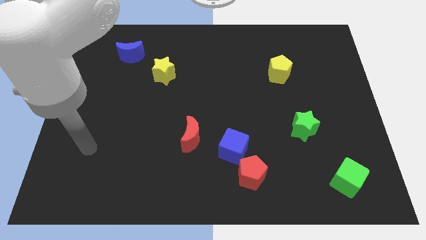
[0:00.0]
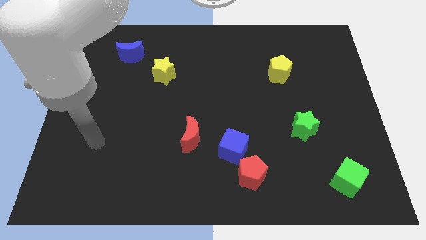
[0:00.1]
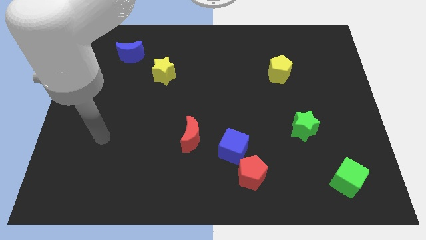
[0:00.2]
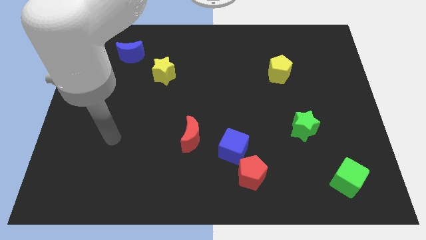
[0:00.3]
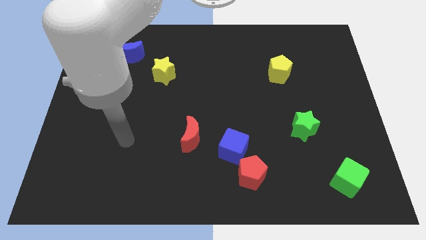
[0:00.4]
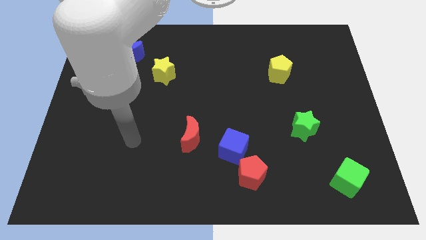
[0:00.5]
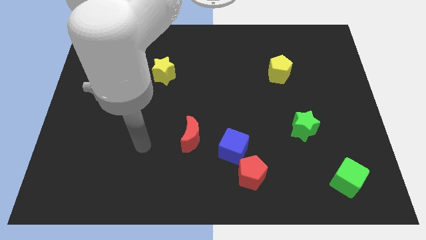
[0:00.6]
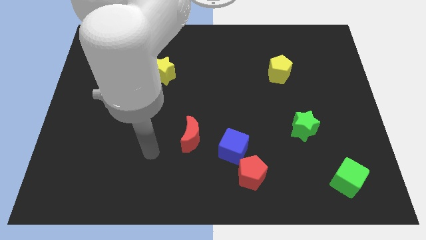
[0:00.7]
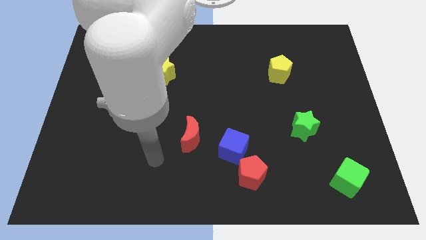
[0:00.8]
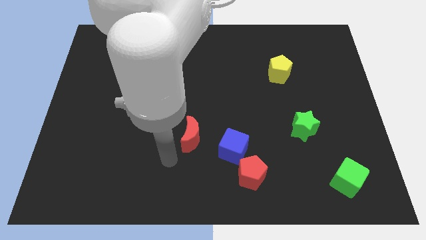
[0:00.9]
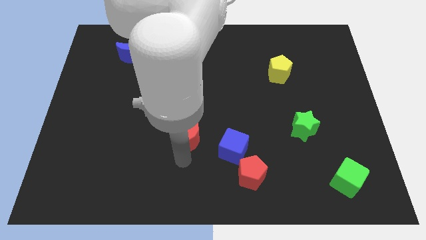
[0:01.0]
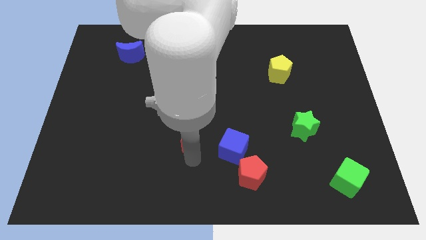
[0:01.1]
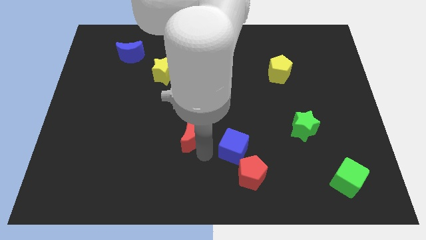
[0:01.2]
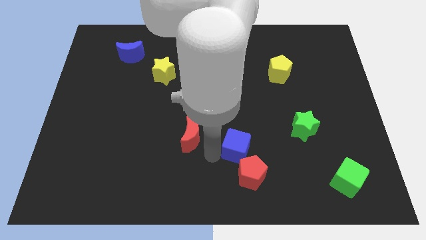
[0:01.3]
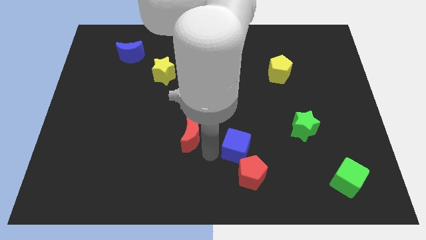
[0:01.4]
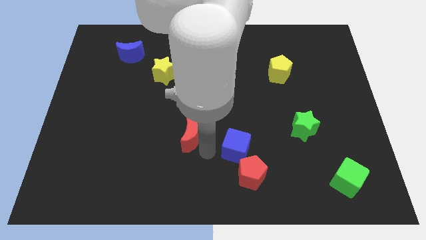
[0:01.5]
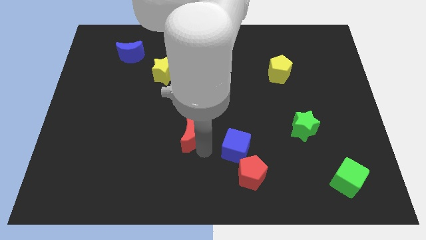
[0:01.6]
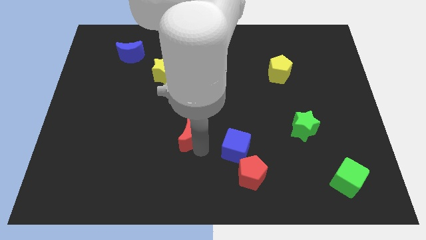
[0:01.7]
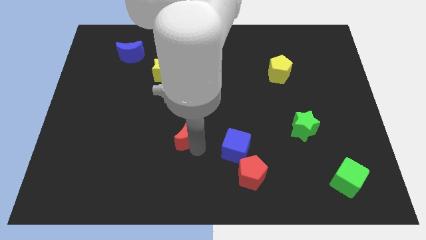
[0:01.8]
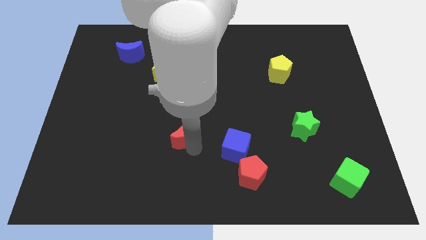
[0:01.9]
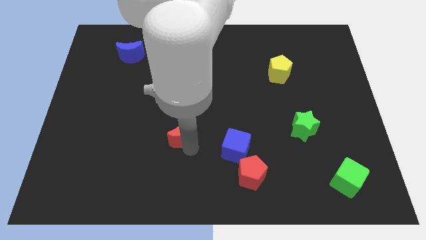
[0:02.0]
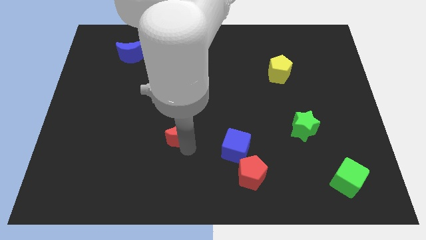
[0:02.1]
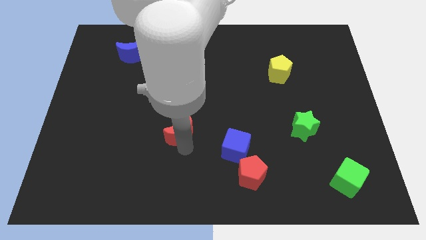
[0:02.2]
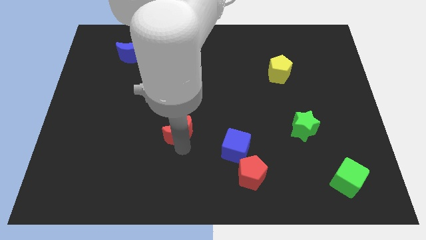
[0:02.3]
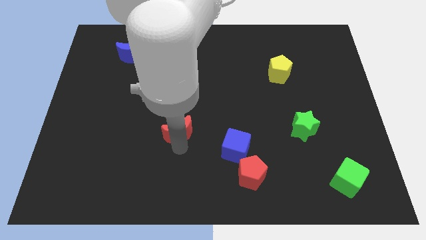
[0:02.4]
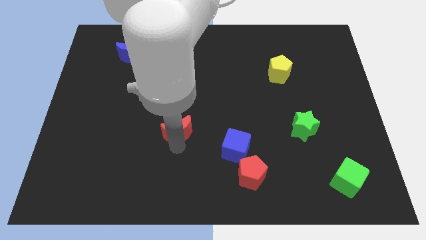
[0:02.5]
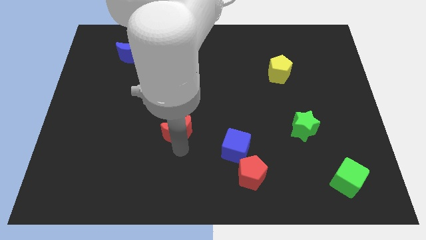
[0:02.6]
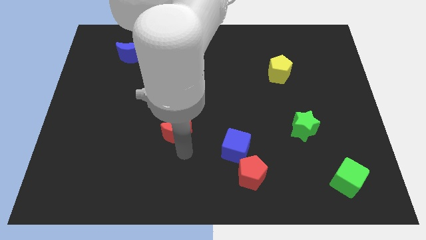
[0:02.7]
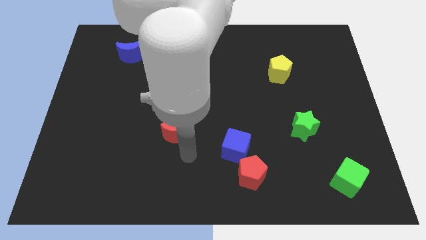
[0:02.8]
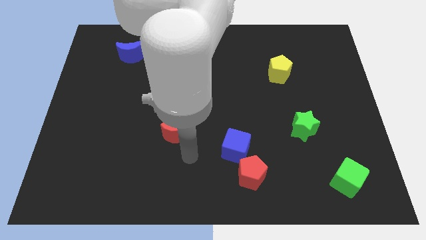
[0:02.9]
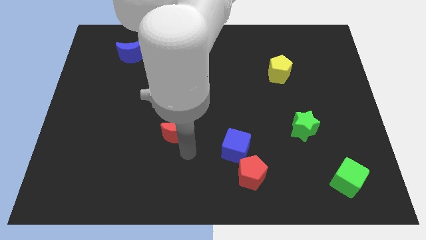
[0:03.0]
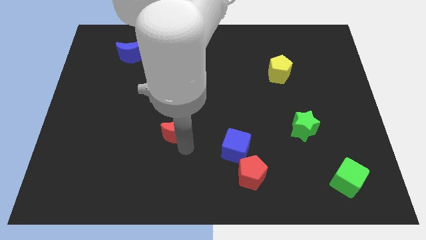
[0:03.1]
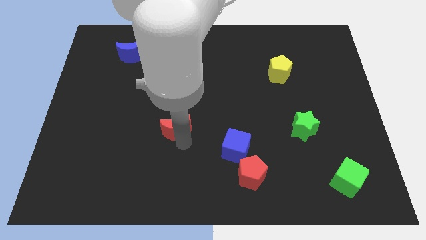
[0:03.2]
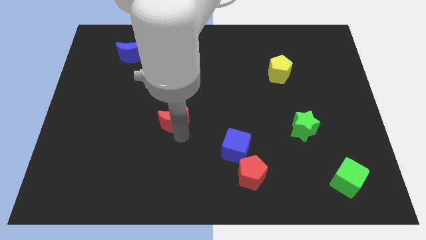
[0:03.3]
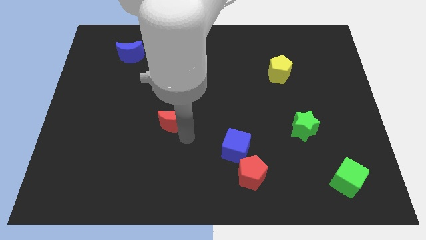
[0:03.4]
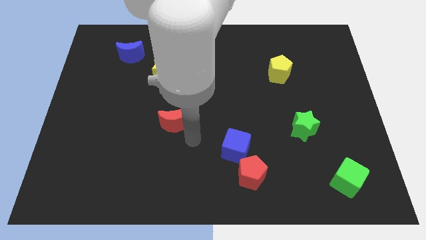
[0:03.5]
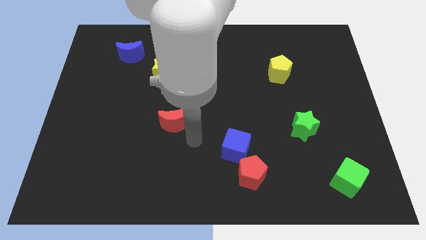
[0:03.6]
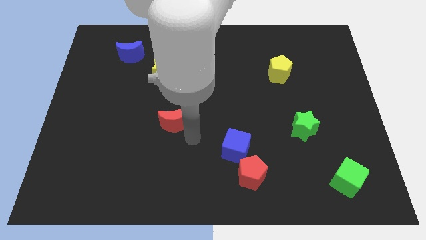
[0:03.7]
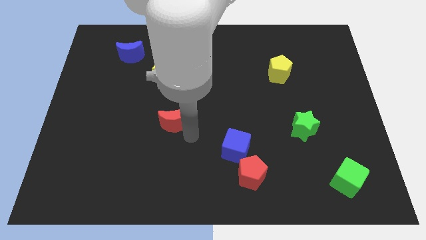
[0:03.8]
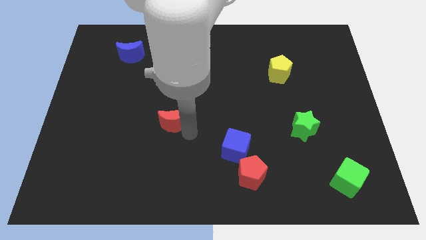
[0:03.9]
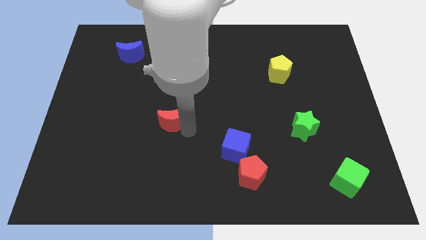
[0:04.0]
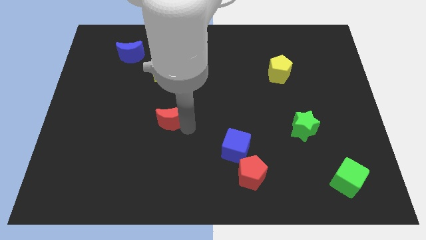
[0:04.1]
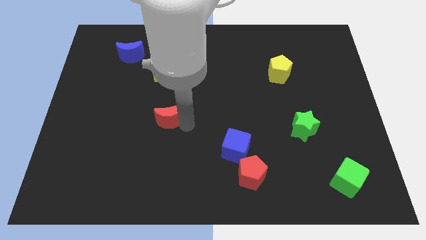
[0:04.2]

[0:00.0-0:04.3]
slightly slide the red moon diagonally upwards and left

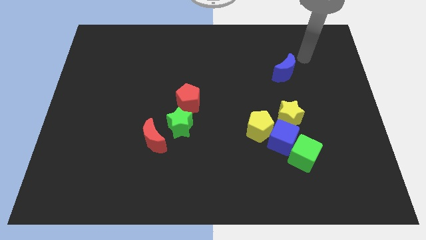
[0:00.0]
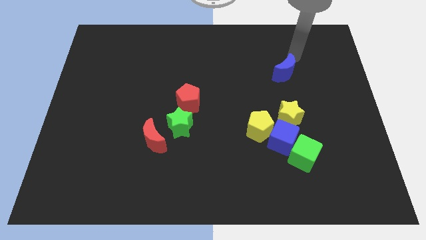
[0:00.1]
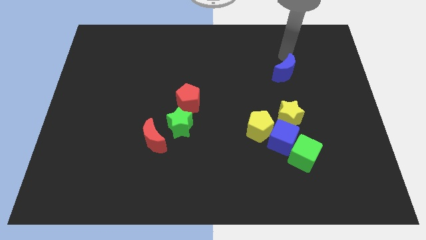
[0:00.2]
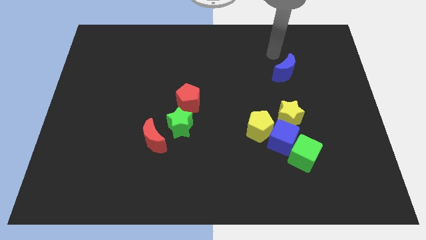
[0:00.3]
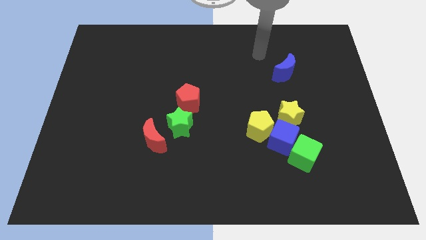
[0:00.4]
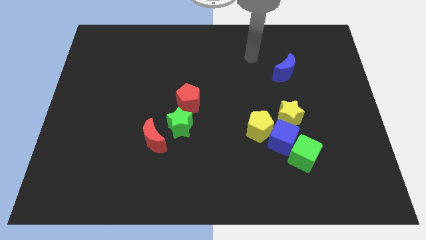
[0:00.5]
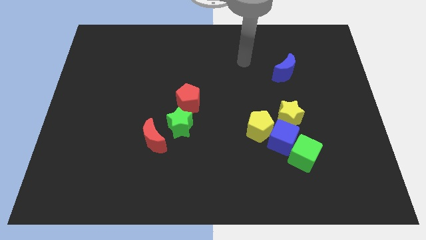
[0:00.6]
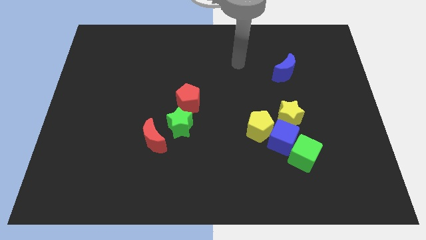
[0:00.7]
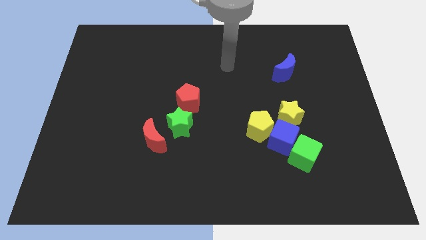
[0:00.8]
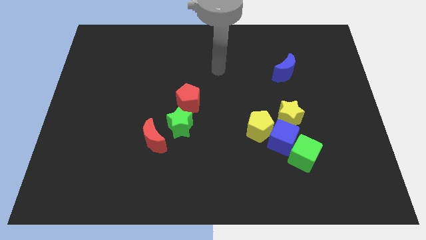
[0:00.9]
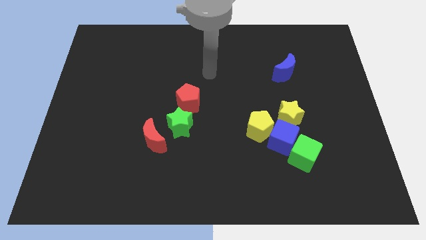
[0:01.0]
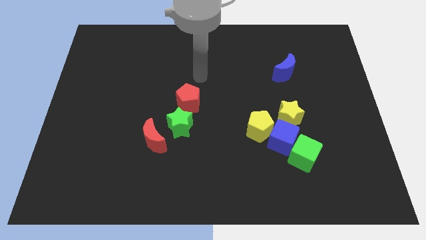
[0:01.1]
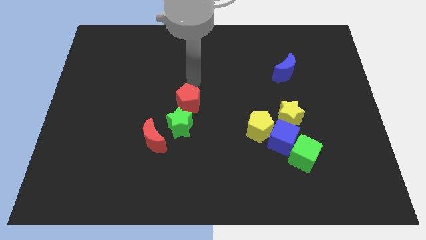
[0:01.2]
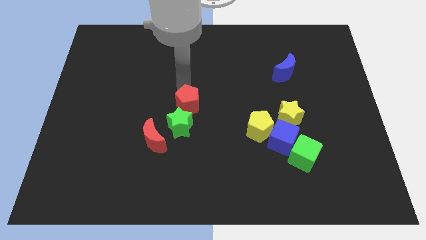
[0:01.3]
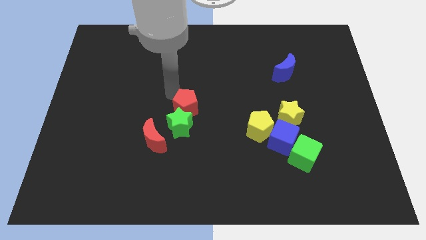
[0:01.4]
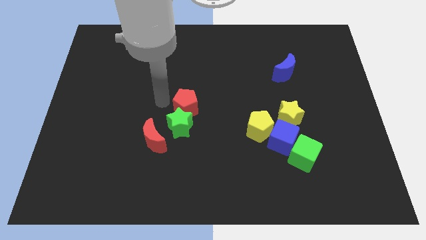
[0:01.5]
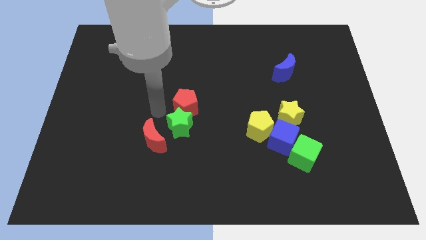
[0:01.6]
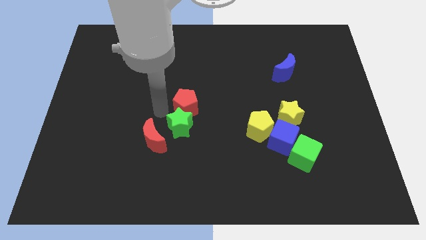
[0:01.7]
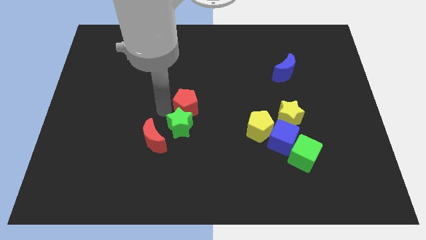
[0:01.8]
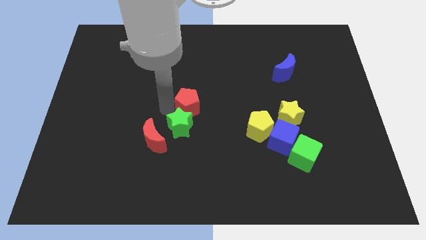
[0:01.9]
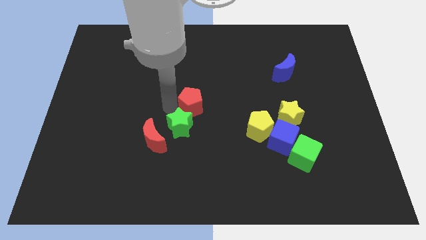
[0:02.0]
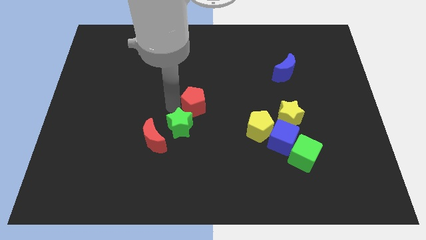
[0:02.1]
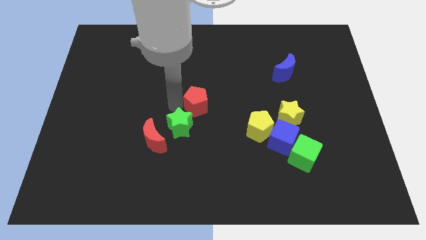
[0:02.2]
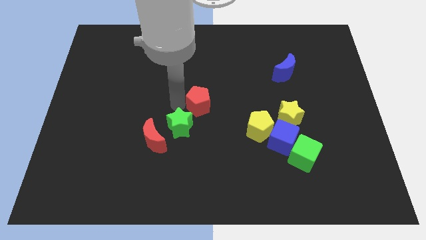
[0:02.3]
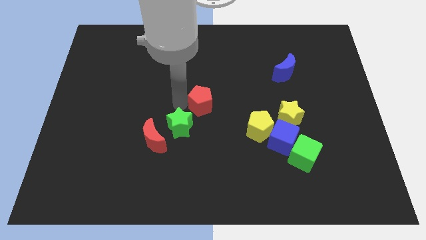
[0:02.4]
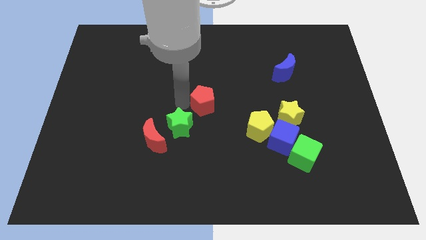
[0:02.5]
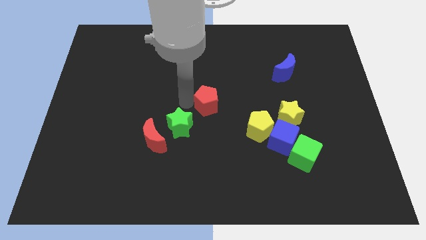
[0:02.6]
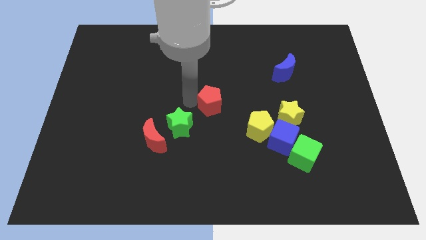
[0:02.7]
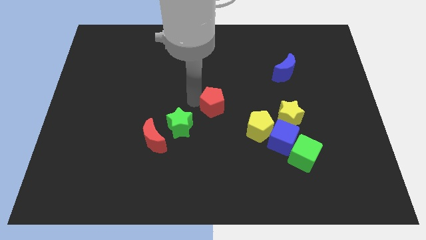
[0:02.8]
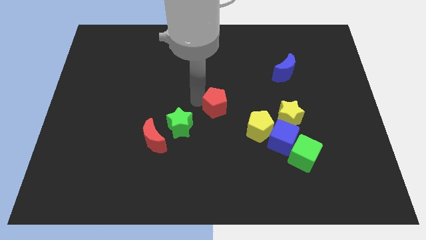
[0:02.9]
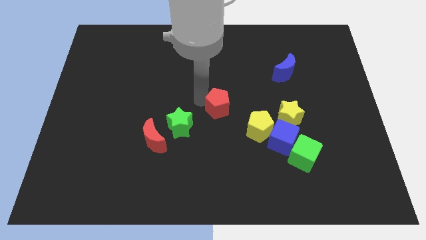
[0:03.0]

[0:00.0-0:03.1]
slightly push the red pentagon to the right

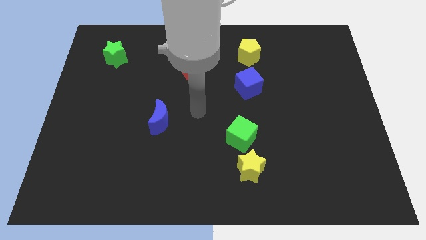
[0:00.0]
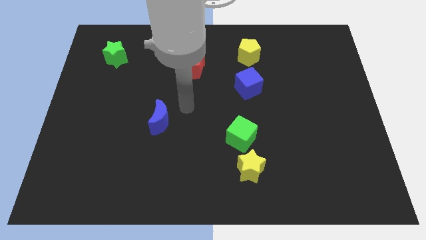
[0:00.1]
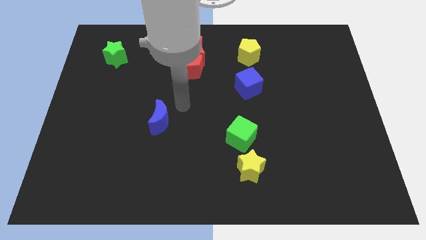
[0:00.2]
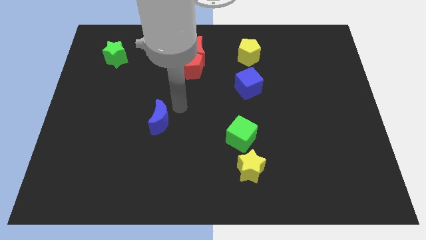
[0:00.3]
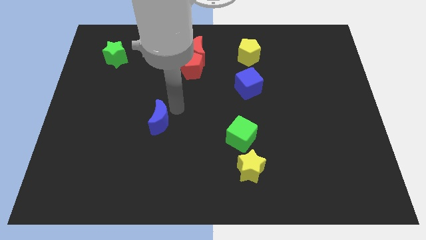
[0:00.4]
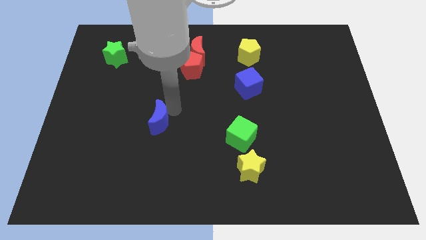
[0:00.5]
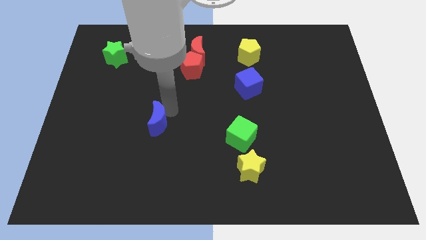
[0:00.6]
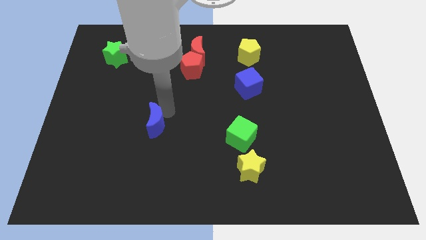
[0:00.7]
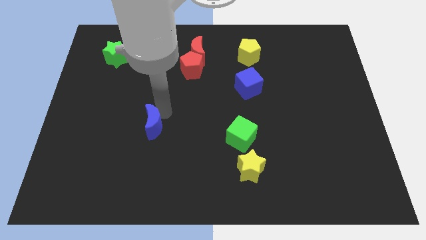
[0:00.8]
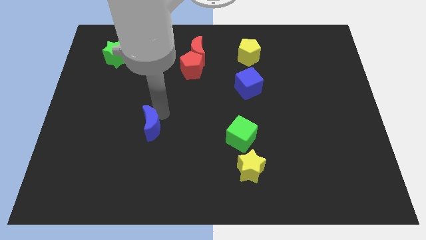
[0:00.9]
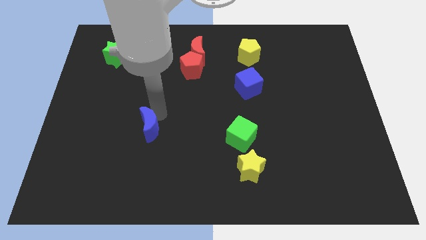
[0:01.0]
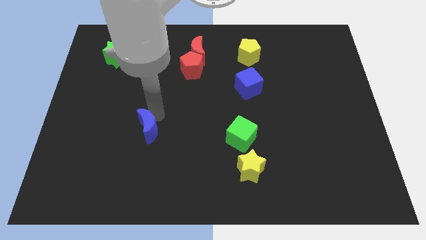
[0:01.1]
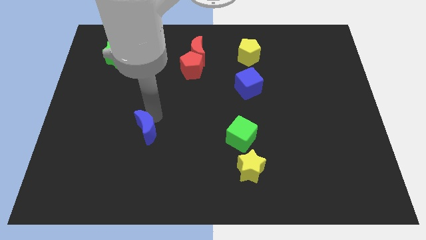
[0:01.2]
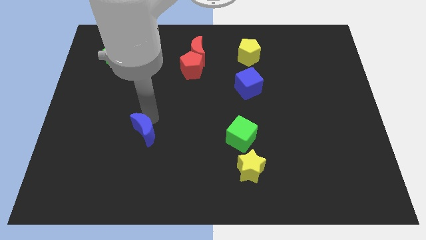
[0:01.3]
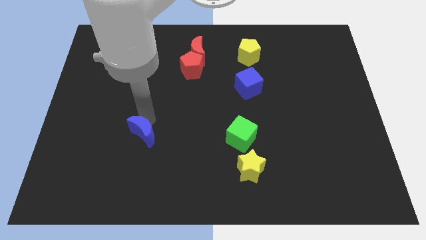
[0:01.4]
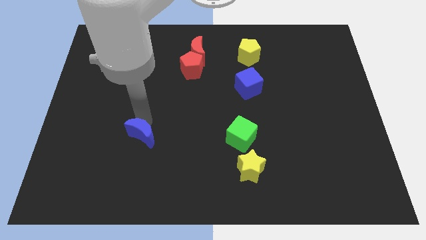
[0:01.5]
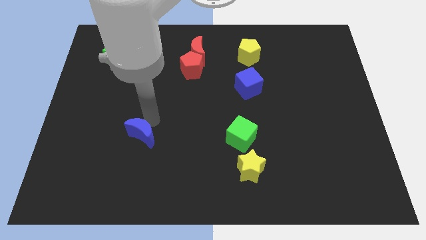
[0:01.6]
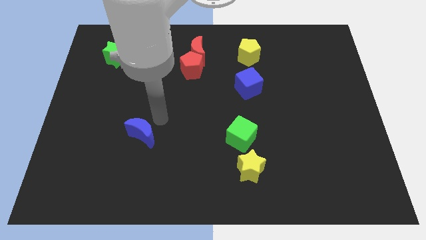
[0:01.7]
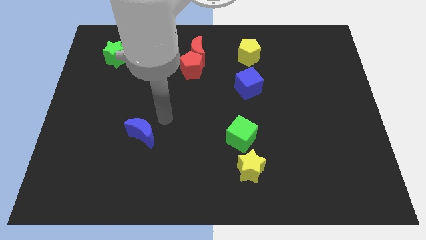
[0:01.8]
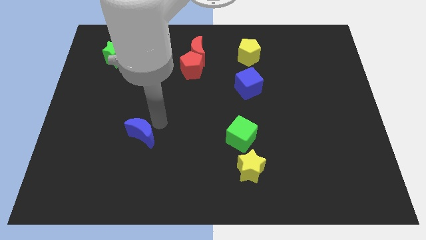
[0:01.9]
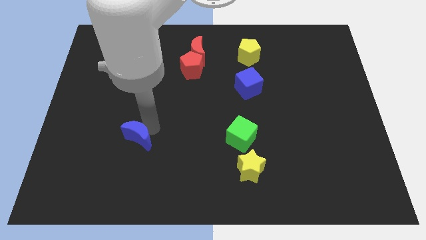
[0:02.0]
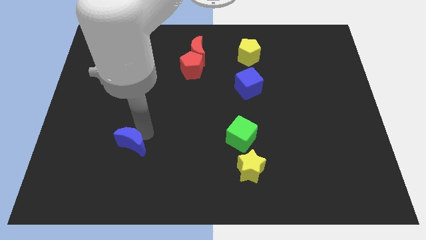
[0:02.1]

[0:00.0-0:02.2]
push the blue moon somewhat downwards and to the left diagonally
